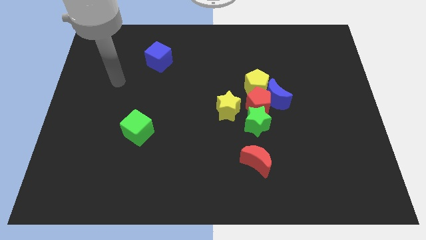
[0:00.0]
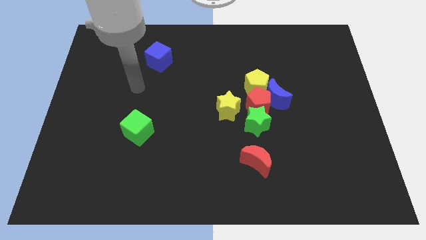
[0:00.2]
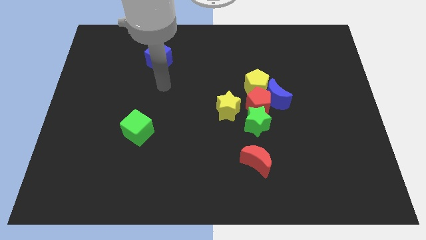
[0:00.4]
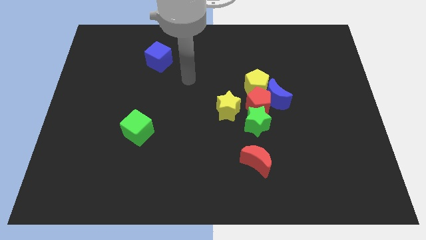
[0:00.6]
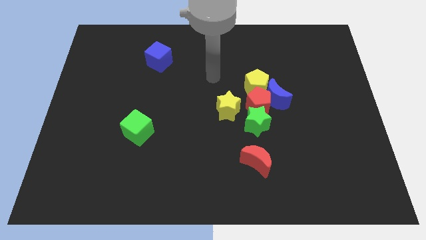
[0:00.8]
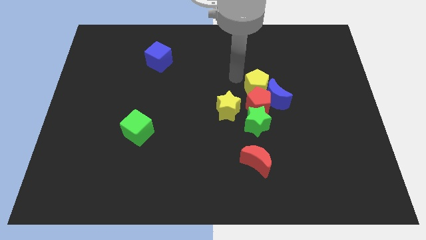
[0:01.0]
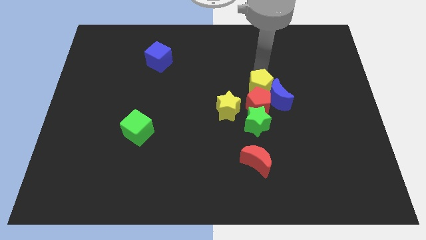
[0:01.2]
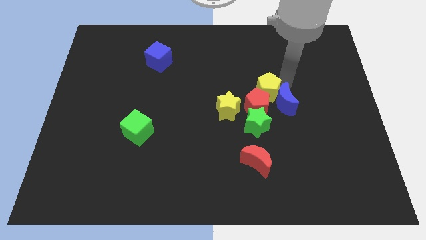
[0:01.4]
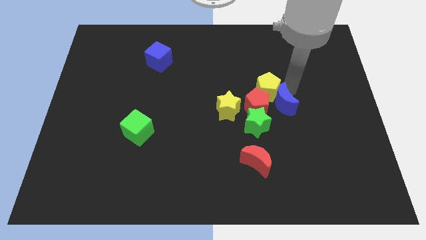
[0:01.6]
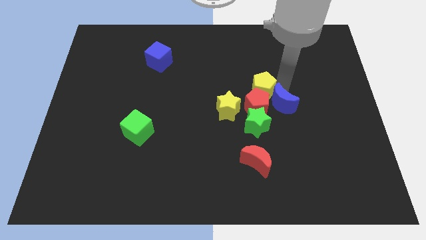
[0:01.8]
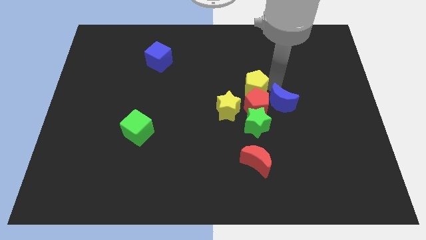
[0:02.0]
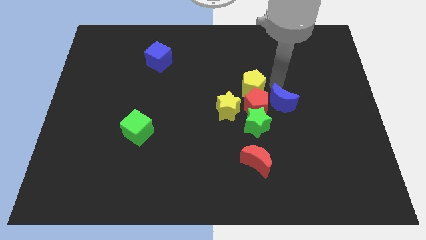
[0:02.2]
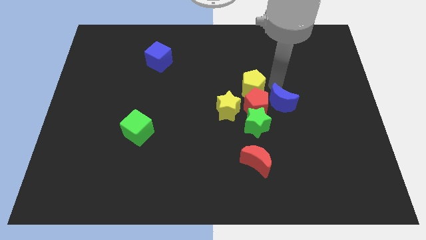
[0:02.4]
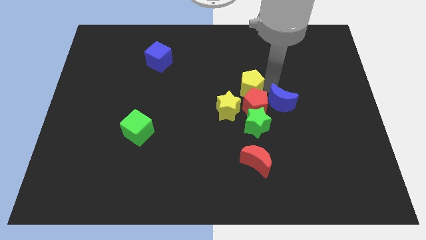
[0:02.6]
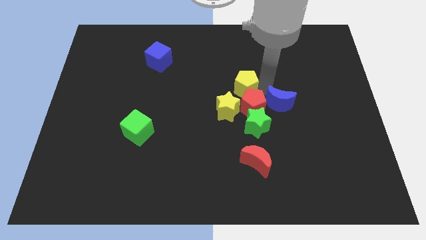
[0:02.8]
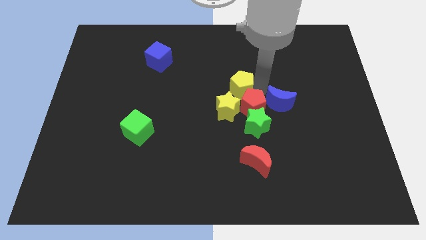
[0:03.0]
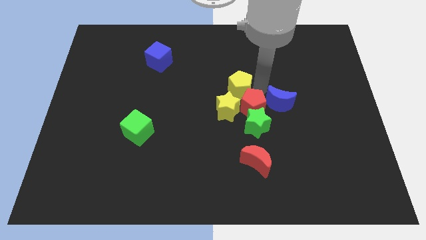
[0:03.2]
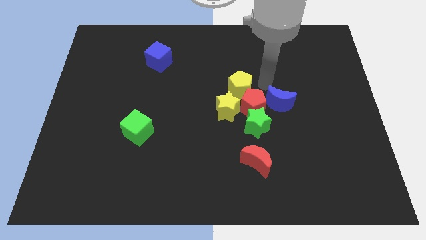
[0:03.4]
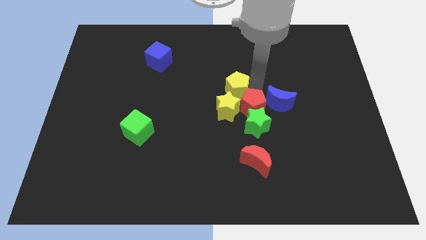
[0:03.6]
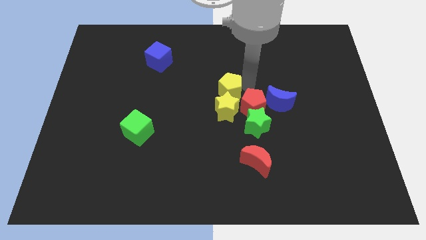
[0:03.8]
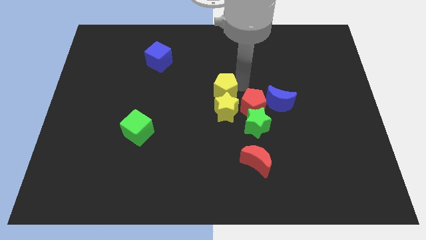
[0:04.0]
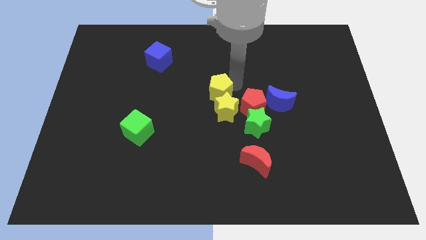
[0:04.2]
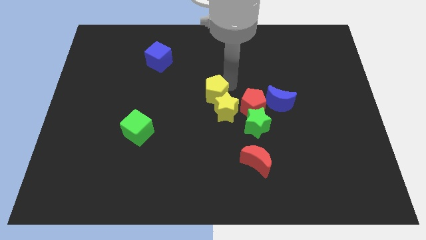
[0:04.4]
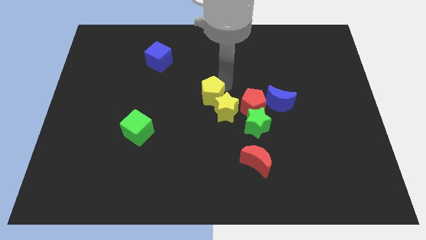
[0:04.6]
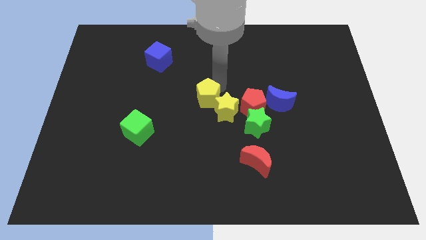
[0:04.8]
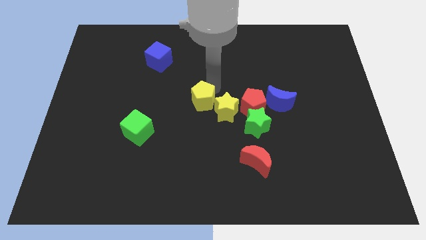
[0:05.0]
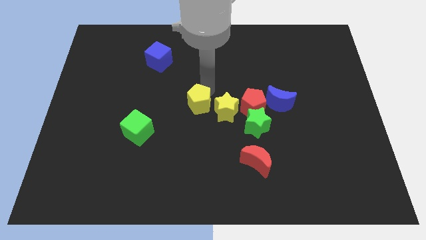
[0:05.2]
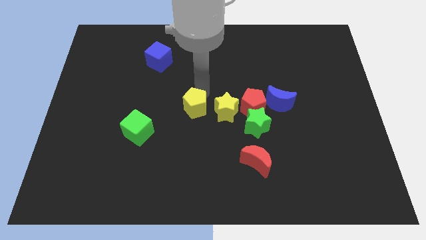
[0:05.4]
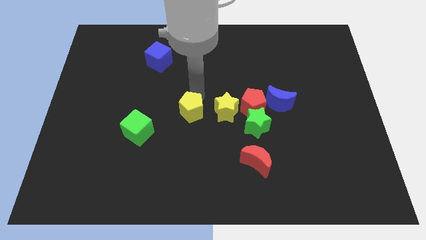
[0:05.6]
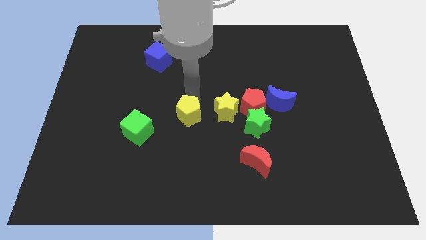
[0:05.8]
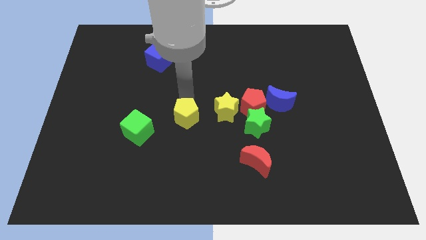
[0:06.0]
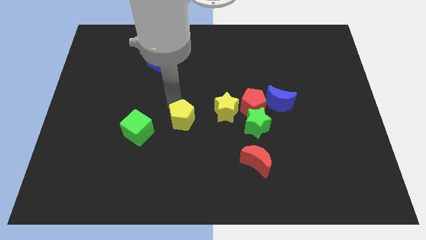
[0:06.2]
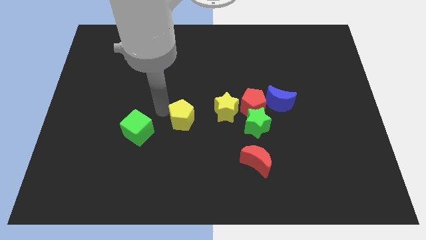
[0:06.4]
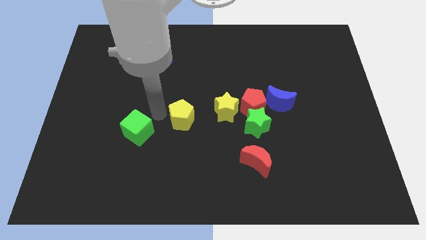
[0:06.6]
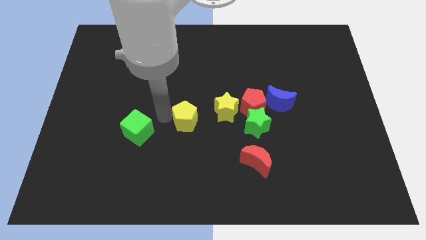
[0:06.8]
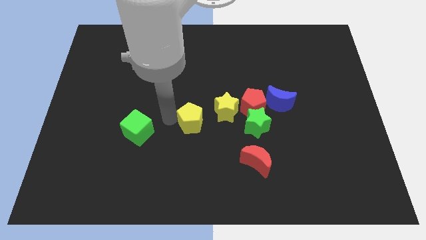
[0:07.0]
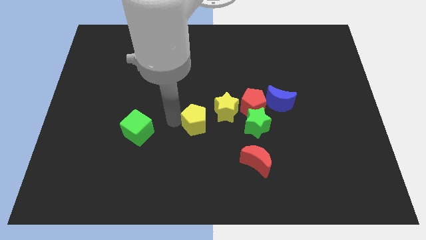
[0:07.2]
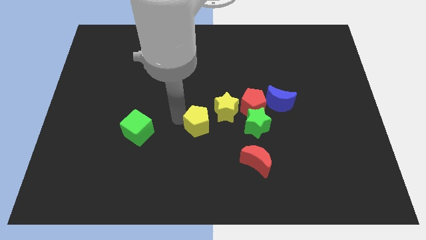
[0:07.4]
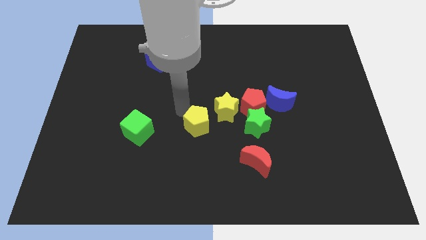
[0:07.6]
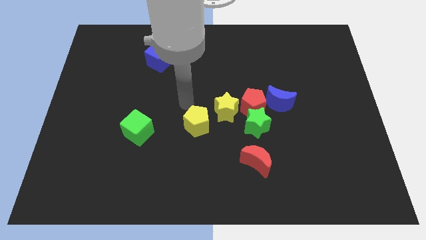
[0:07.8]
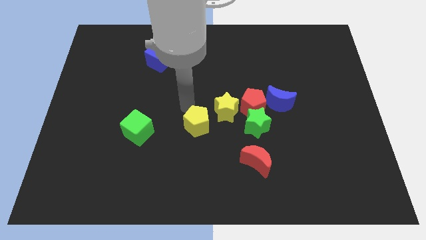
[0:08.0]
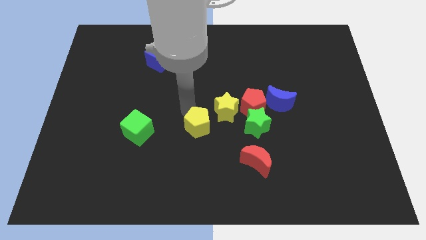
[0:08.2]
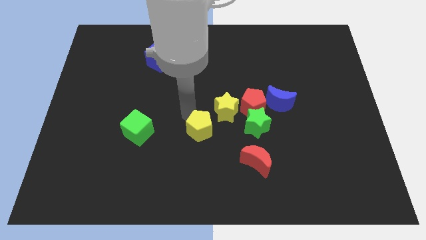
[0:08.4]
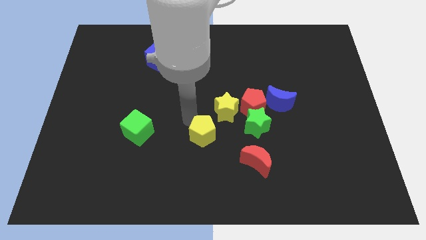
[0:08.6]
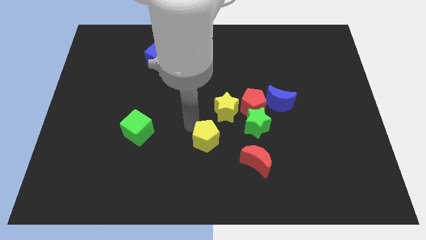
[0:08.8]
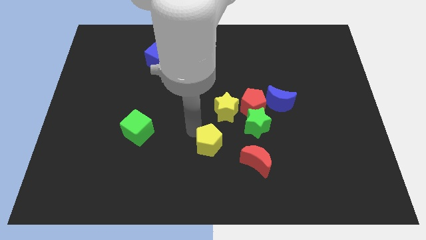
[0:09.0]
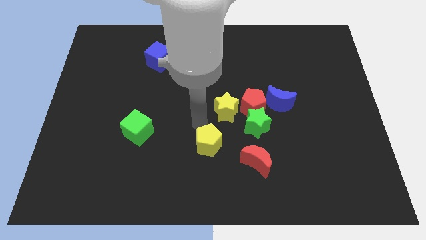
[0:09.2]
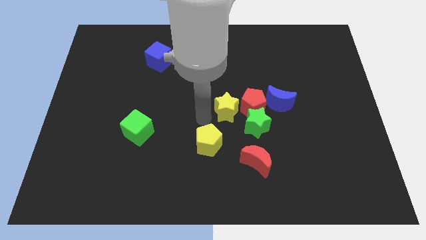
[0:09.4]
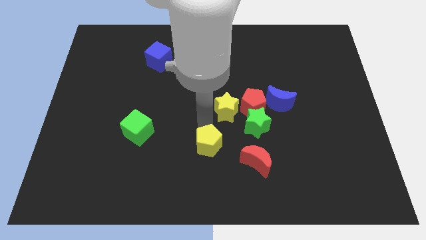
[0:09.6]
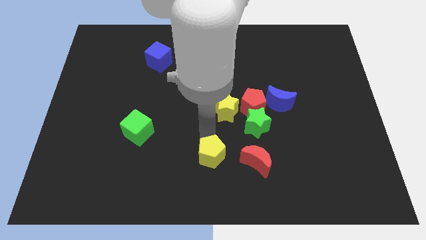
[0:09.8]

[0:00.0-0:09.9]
put the yellow pentagon to the bottom side

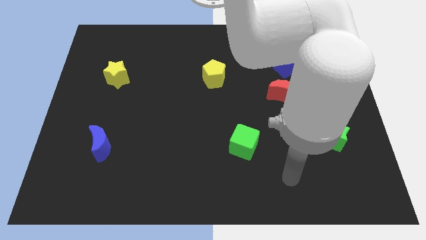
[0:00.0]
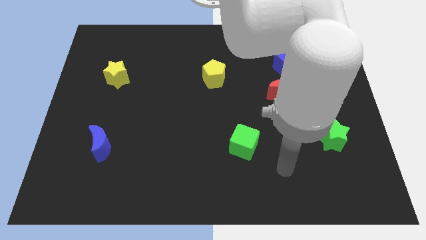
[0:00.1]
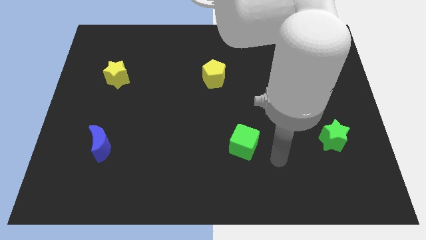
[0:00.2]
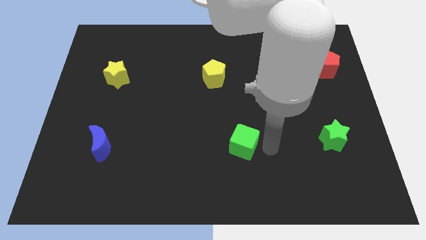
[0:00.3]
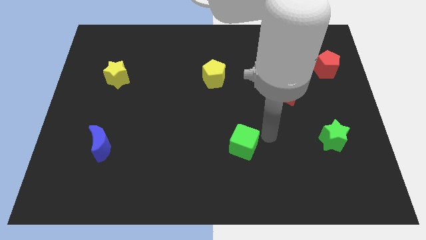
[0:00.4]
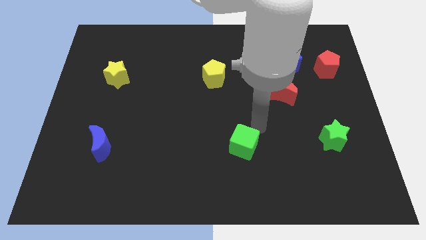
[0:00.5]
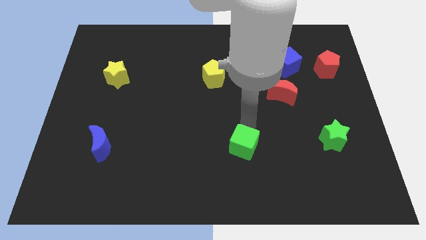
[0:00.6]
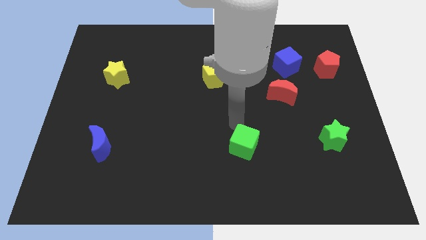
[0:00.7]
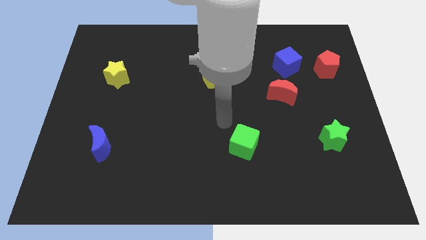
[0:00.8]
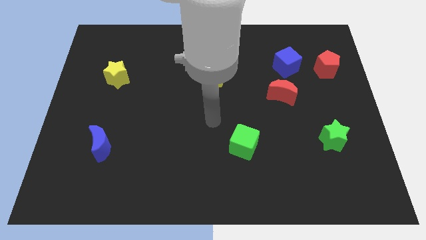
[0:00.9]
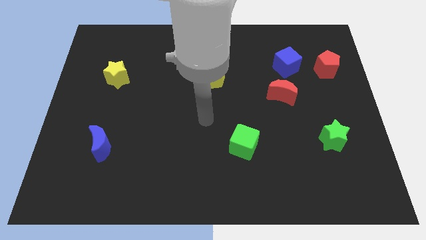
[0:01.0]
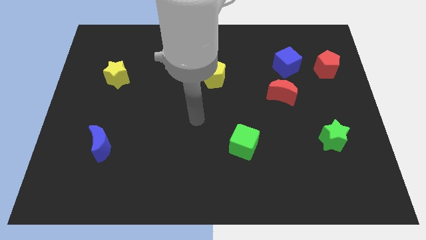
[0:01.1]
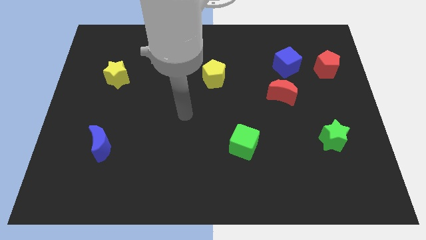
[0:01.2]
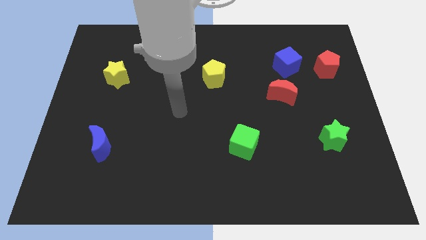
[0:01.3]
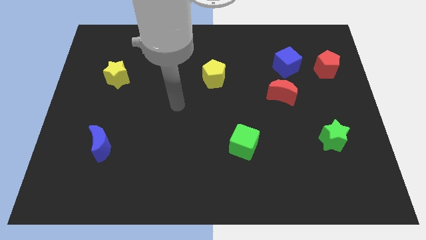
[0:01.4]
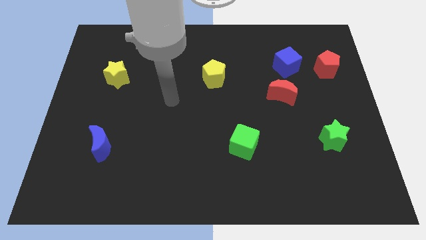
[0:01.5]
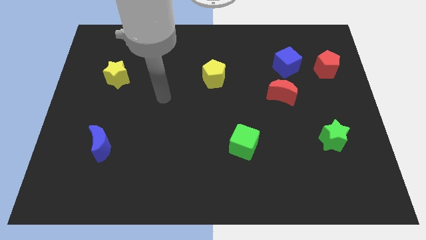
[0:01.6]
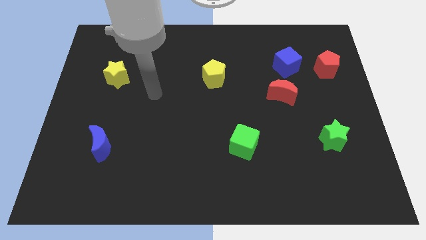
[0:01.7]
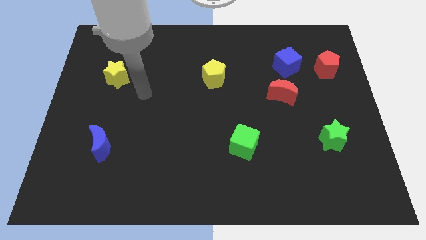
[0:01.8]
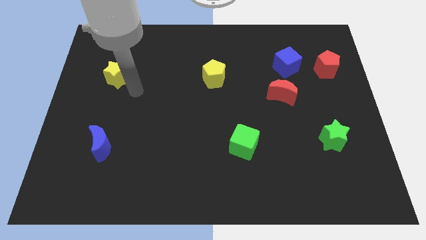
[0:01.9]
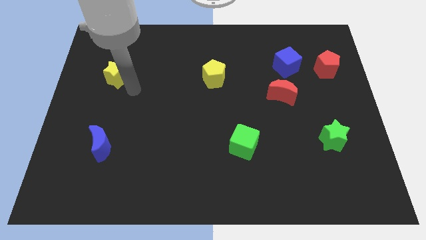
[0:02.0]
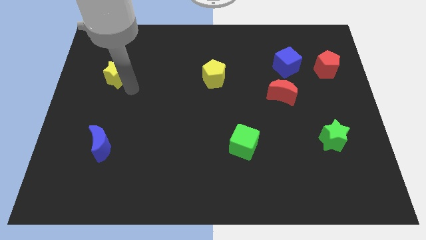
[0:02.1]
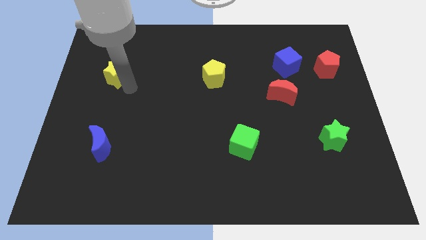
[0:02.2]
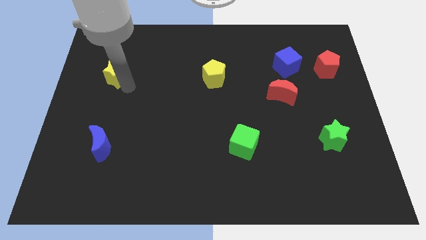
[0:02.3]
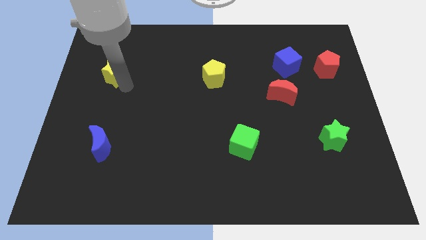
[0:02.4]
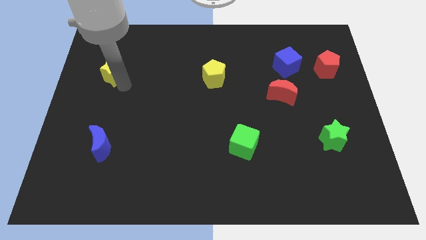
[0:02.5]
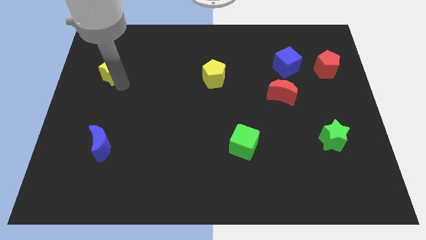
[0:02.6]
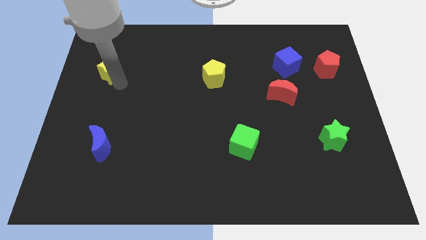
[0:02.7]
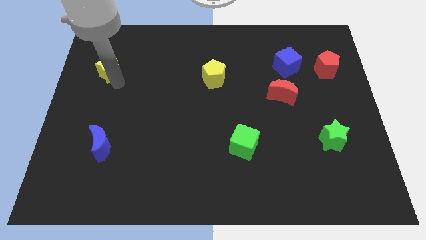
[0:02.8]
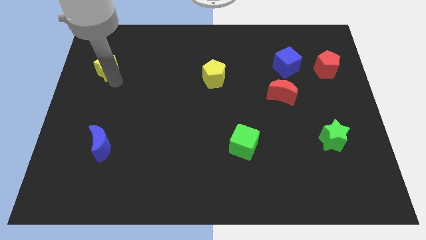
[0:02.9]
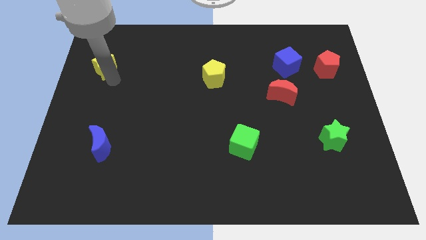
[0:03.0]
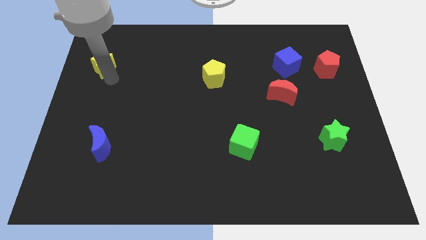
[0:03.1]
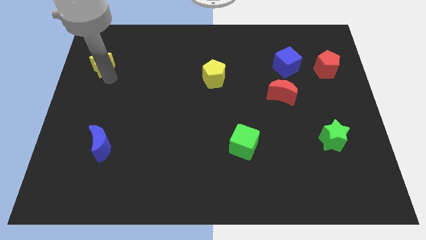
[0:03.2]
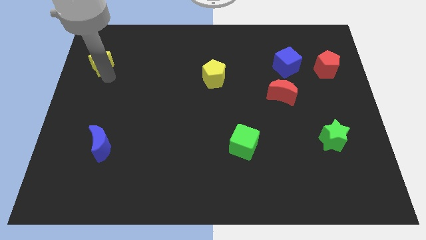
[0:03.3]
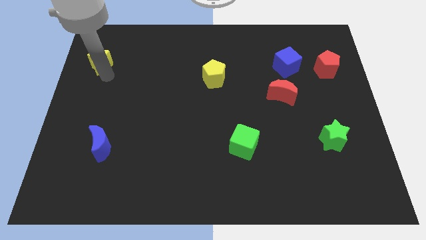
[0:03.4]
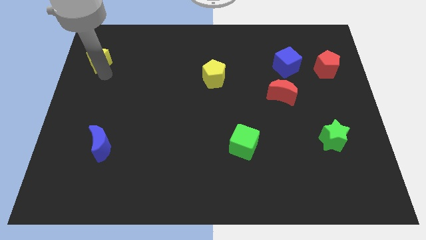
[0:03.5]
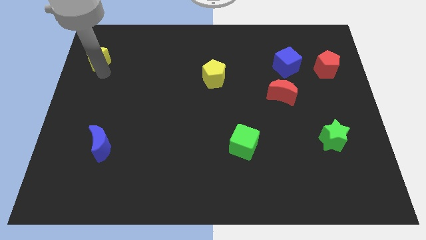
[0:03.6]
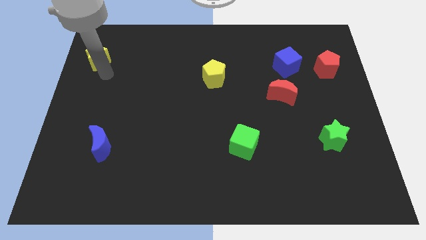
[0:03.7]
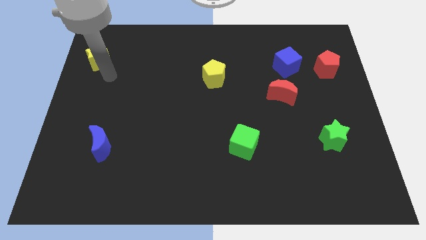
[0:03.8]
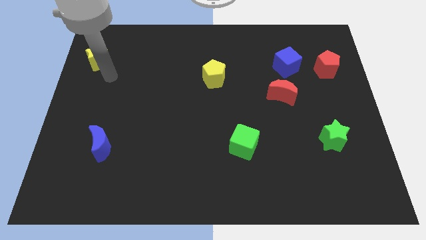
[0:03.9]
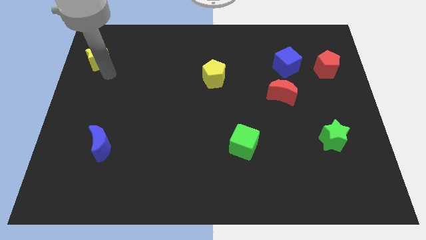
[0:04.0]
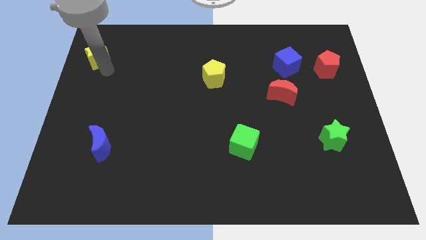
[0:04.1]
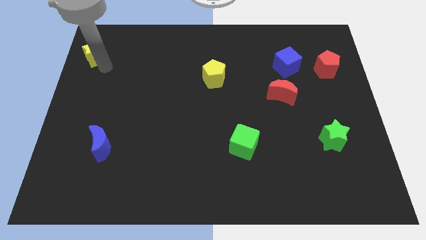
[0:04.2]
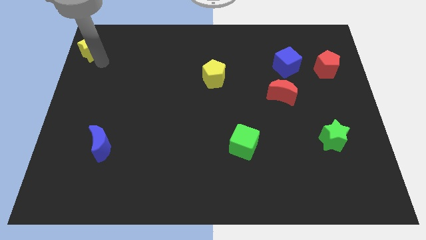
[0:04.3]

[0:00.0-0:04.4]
push the yellow star to the top left
